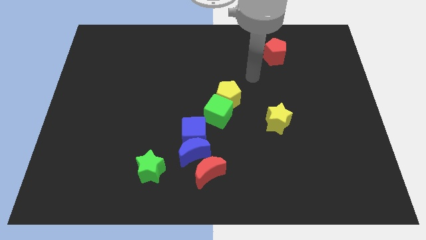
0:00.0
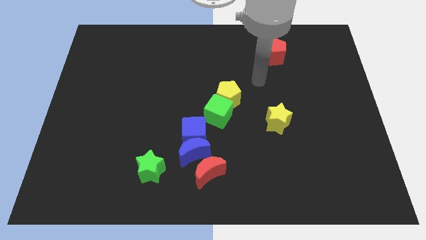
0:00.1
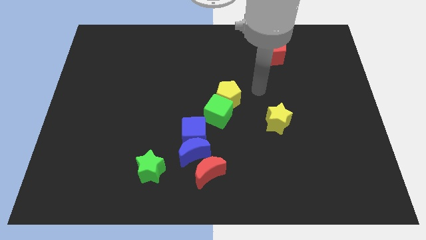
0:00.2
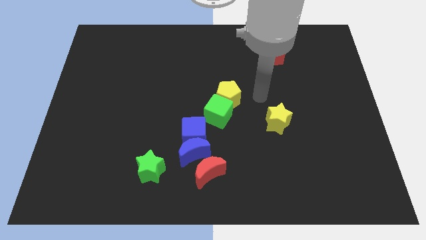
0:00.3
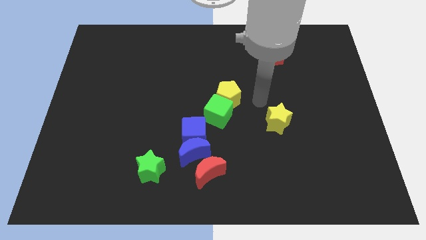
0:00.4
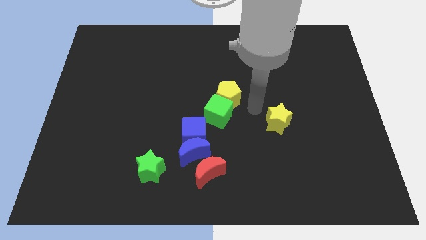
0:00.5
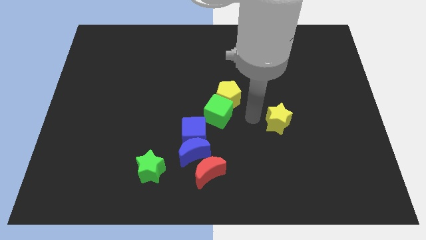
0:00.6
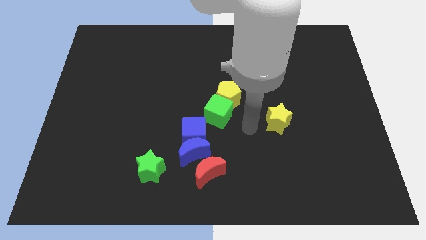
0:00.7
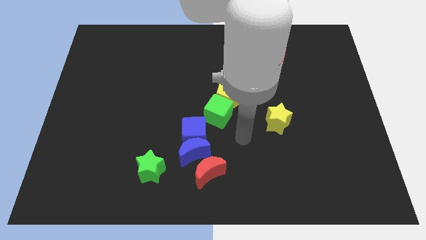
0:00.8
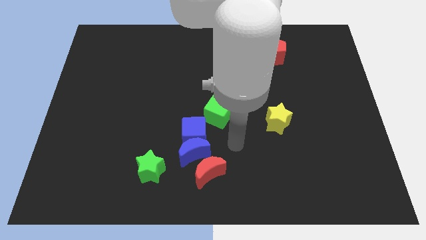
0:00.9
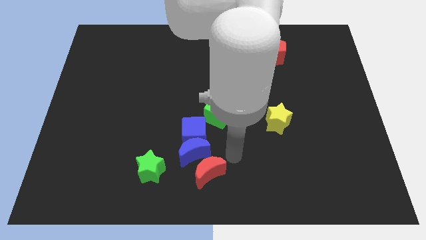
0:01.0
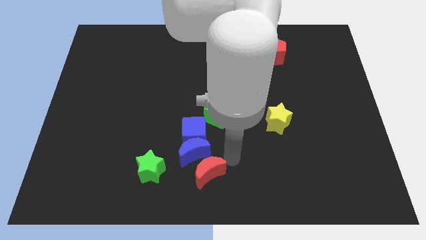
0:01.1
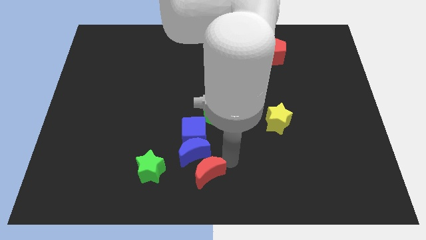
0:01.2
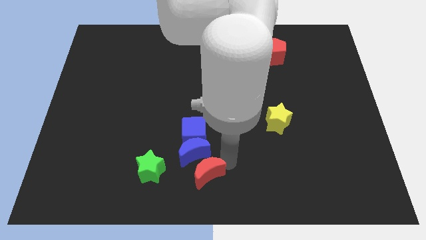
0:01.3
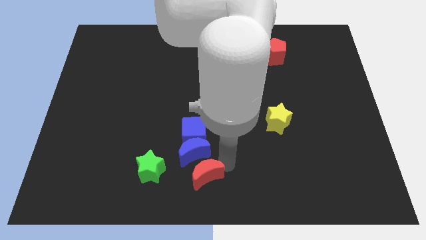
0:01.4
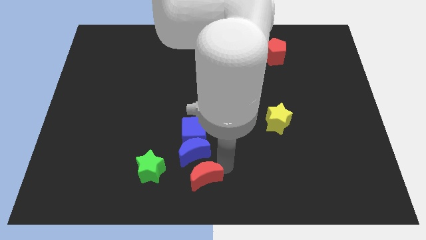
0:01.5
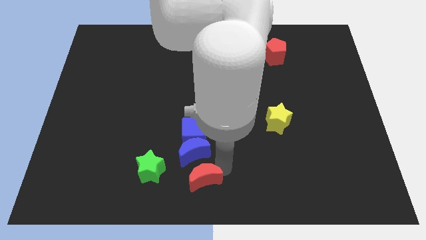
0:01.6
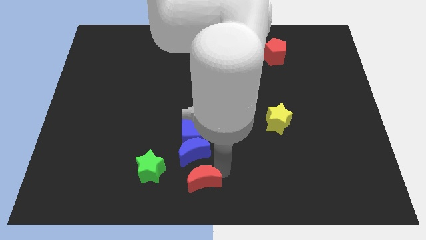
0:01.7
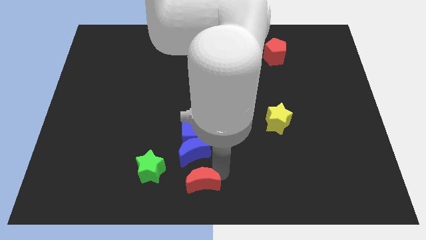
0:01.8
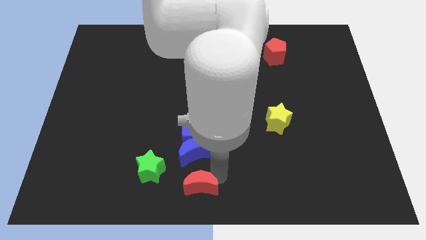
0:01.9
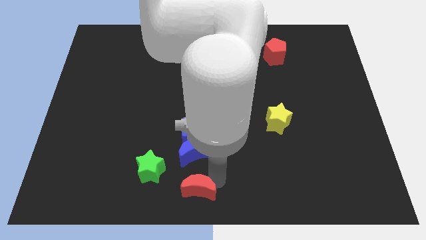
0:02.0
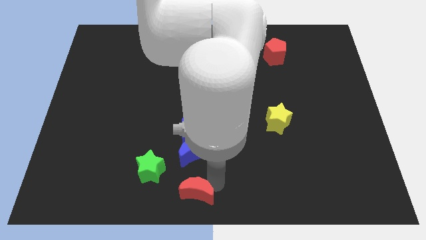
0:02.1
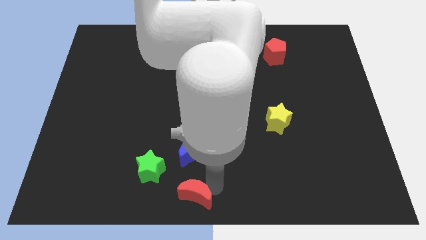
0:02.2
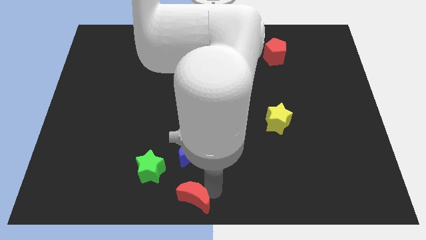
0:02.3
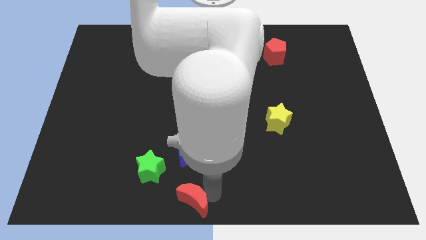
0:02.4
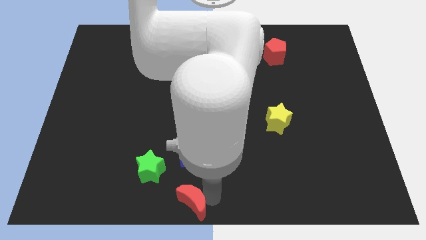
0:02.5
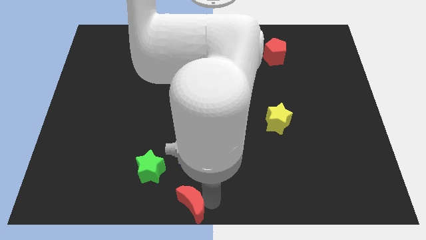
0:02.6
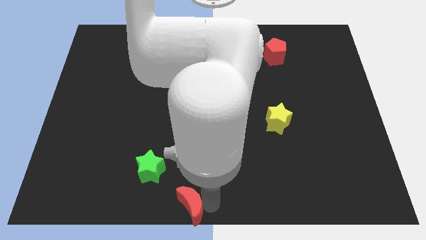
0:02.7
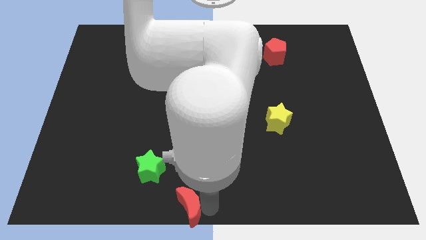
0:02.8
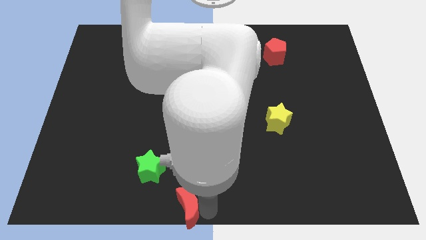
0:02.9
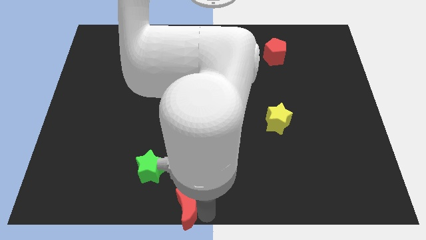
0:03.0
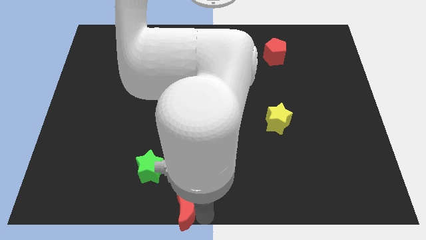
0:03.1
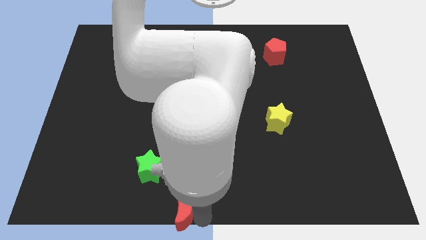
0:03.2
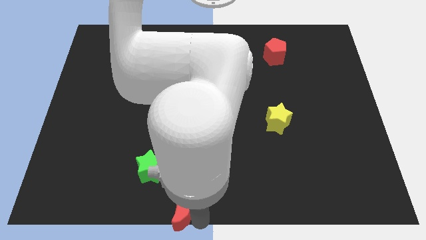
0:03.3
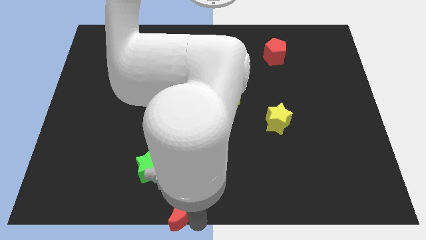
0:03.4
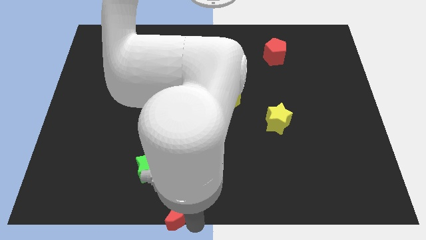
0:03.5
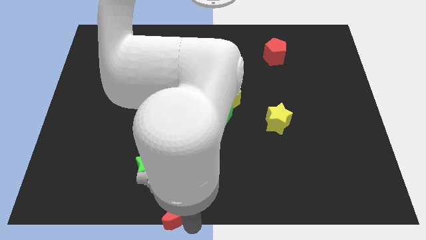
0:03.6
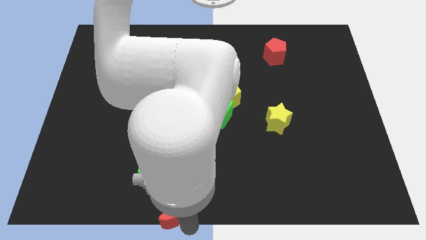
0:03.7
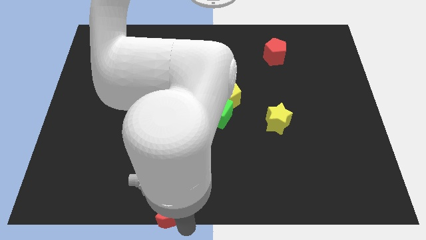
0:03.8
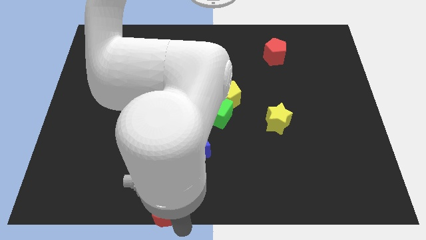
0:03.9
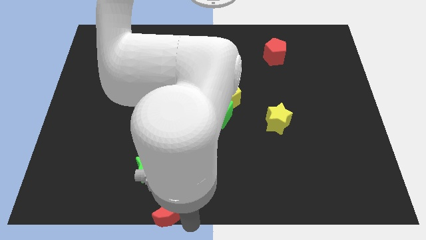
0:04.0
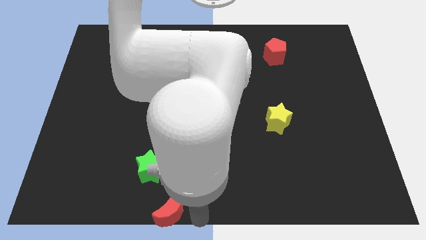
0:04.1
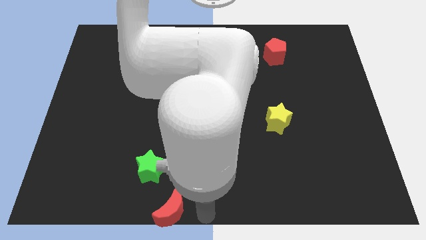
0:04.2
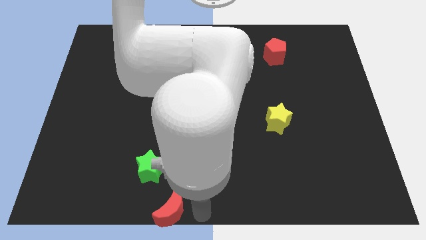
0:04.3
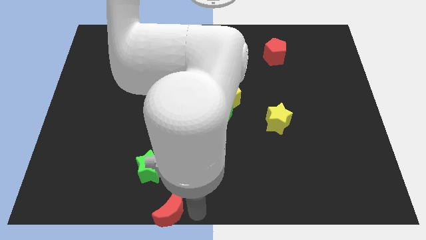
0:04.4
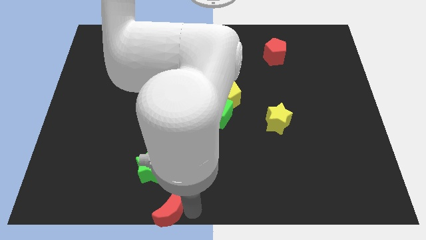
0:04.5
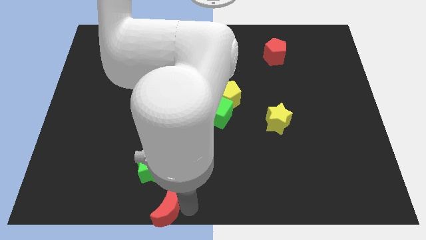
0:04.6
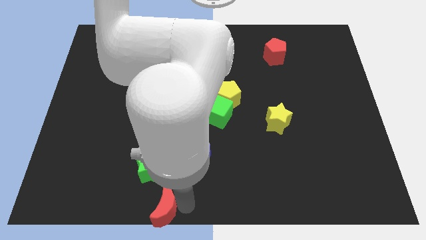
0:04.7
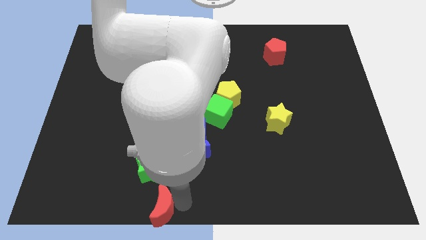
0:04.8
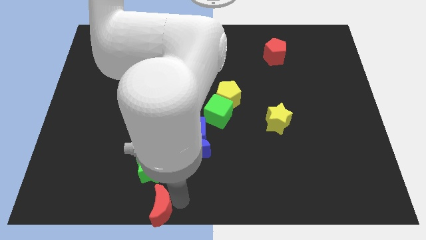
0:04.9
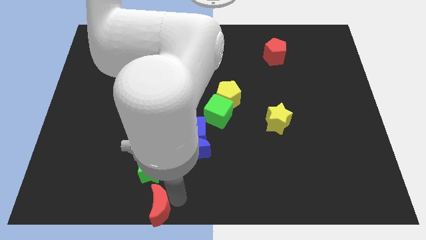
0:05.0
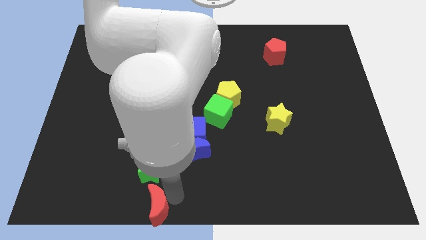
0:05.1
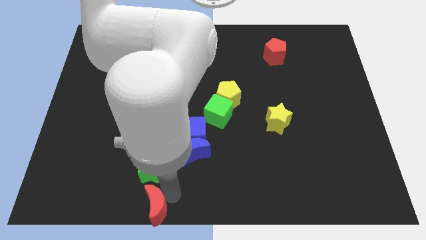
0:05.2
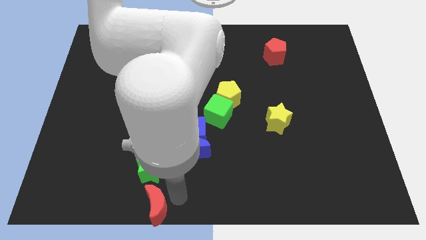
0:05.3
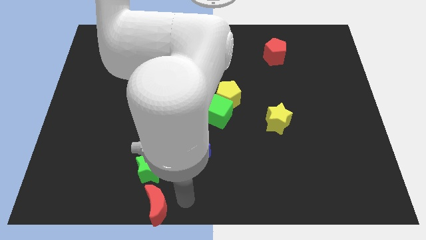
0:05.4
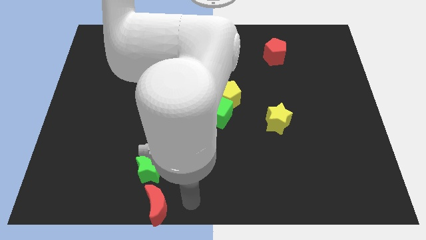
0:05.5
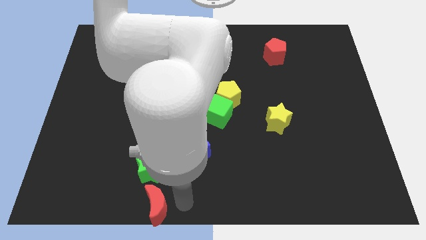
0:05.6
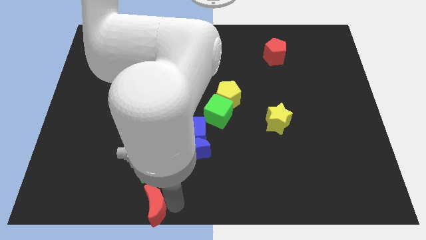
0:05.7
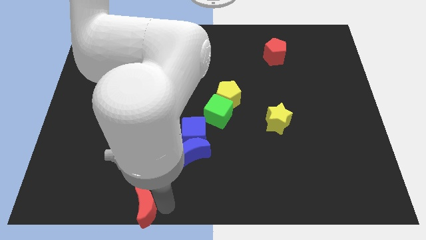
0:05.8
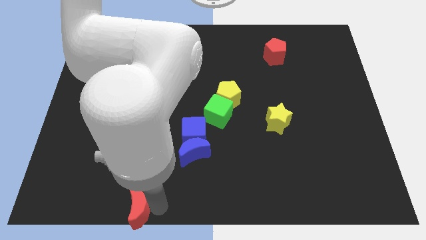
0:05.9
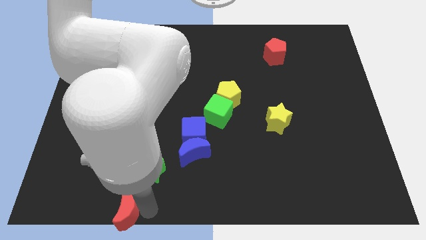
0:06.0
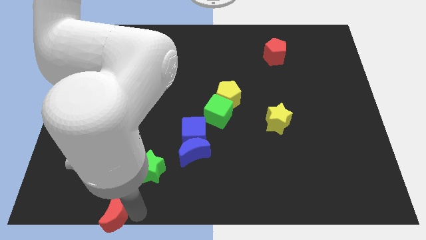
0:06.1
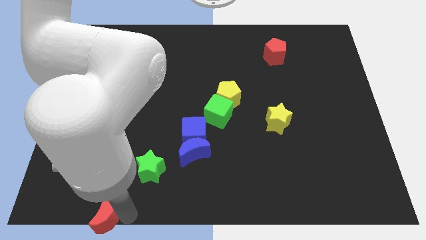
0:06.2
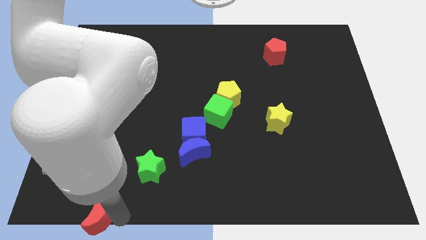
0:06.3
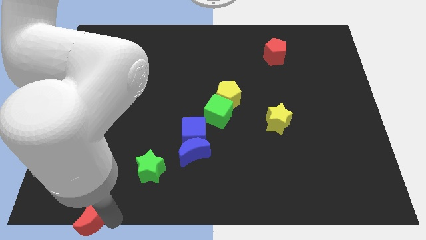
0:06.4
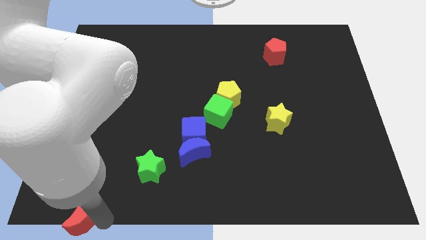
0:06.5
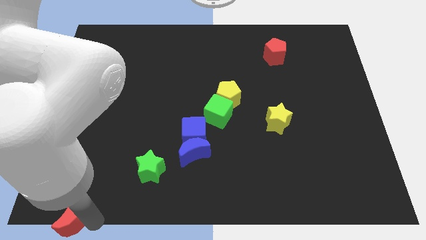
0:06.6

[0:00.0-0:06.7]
push the red moon to the bottom left corner

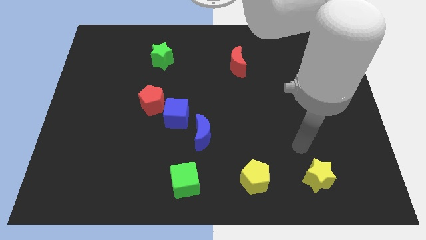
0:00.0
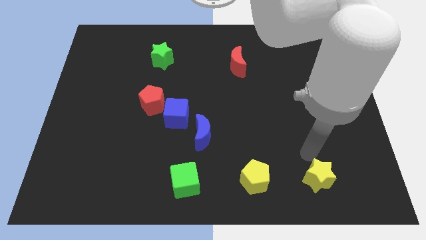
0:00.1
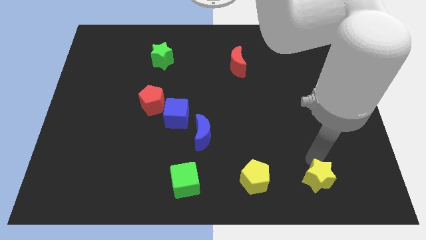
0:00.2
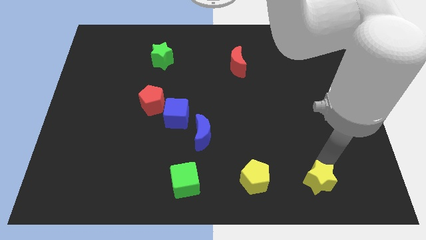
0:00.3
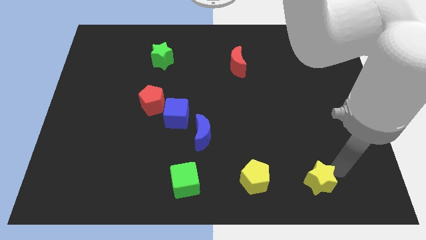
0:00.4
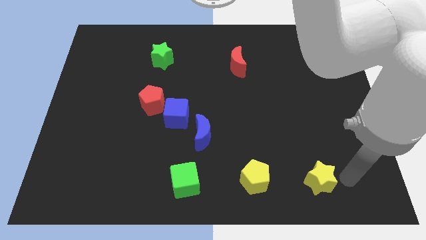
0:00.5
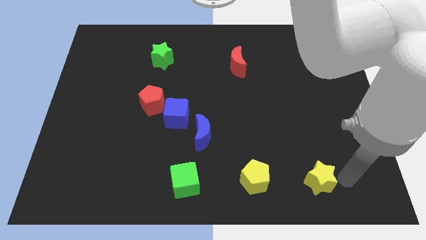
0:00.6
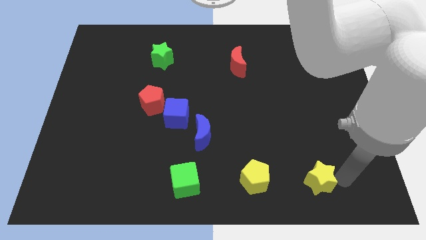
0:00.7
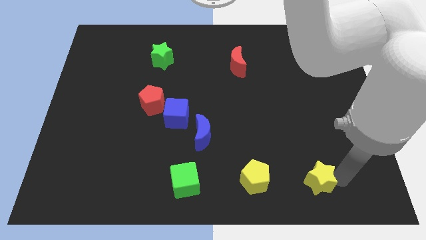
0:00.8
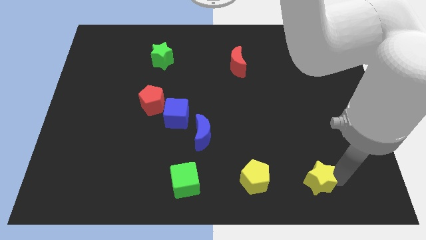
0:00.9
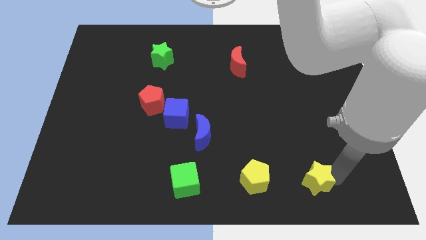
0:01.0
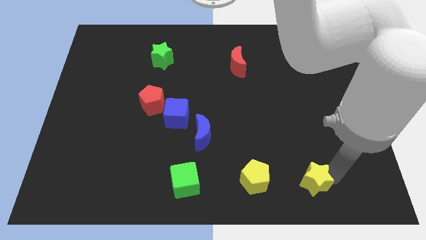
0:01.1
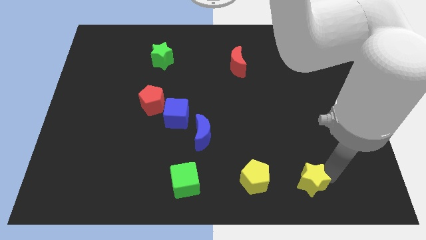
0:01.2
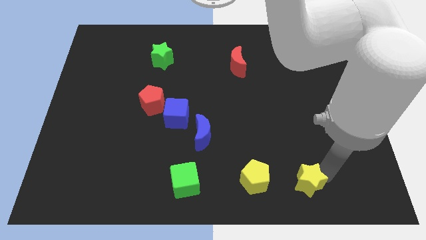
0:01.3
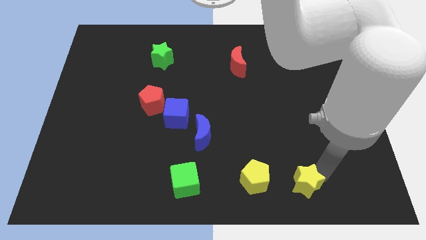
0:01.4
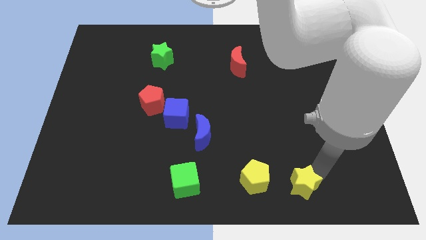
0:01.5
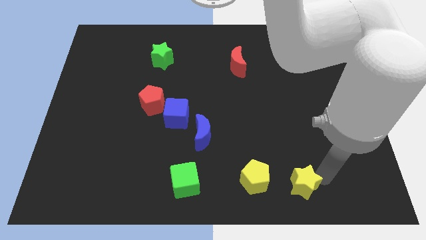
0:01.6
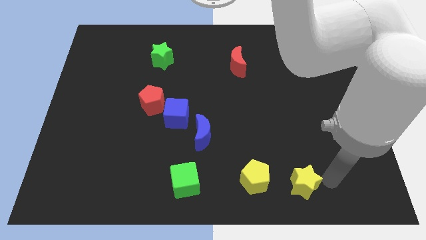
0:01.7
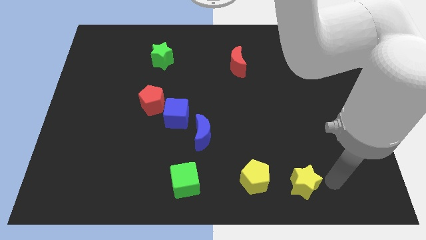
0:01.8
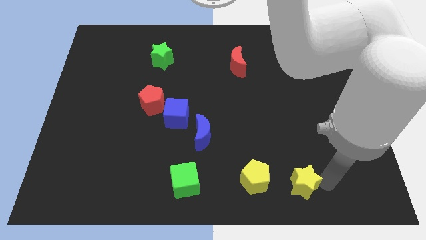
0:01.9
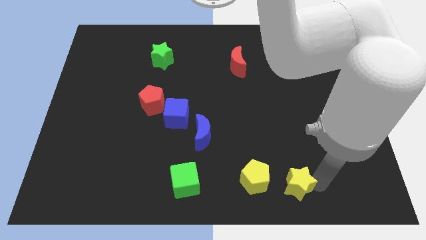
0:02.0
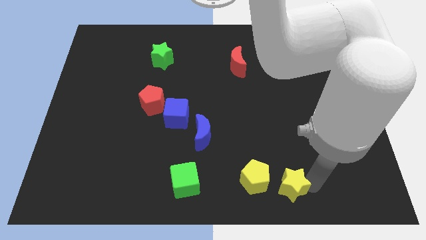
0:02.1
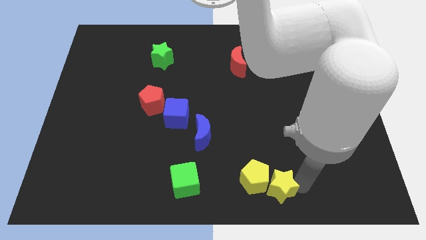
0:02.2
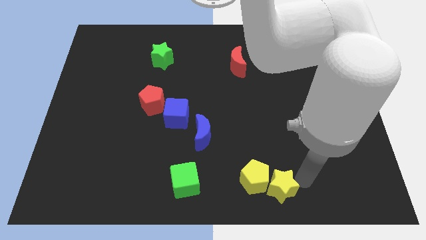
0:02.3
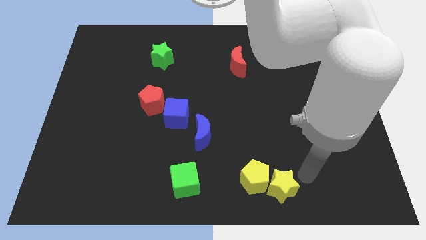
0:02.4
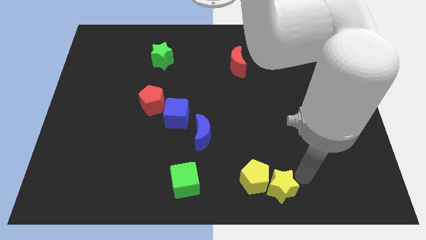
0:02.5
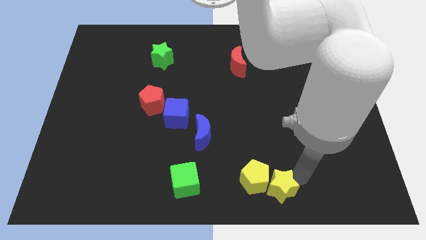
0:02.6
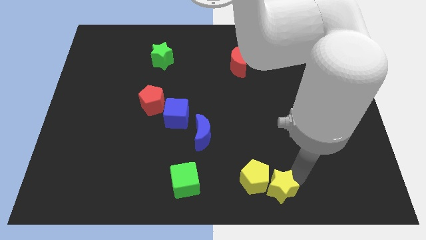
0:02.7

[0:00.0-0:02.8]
slide the yellow star to the bottom
